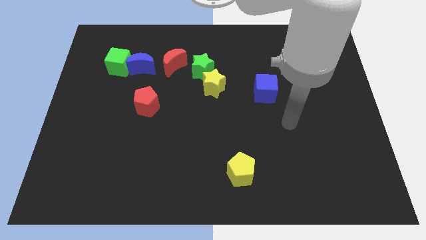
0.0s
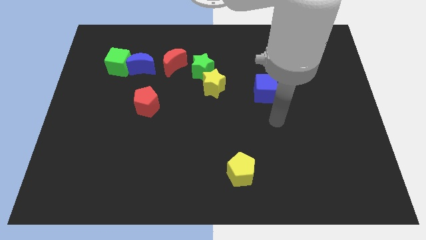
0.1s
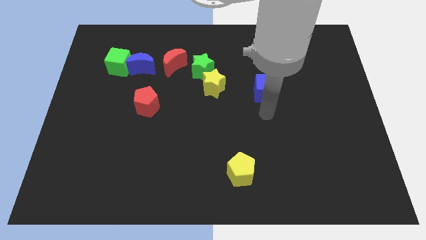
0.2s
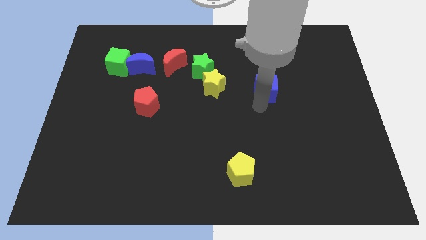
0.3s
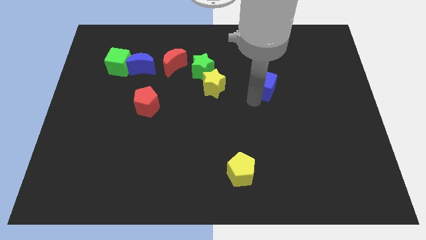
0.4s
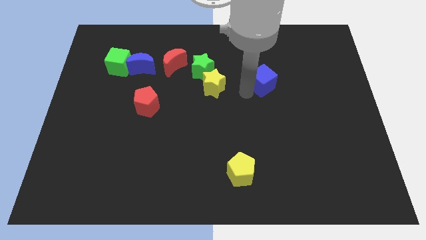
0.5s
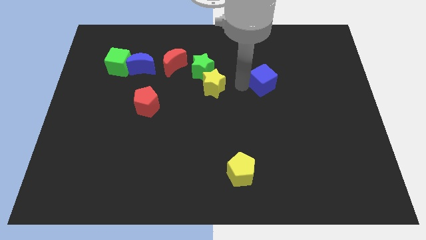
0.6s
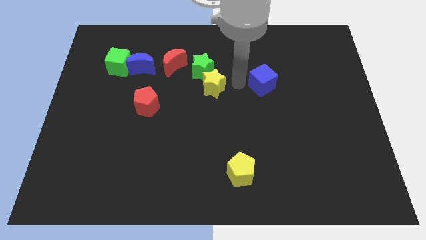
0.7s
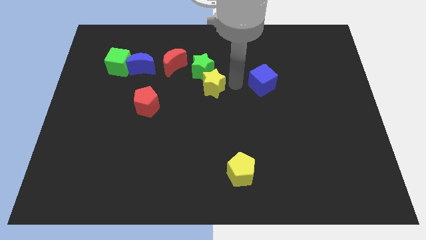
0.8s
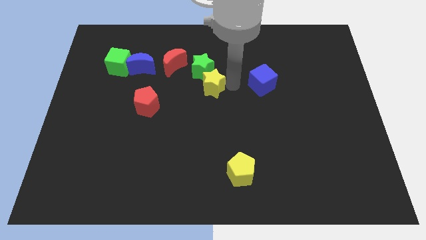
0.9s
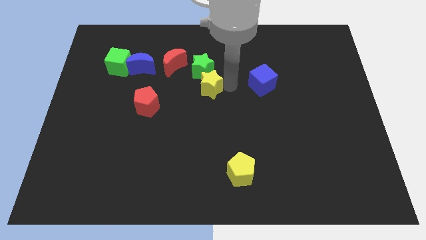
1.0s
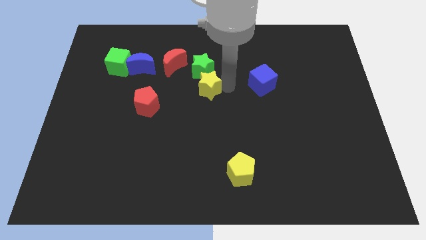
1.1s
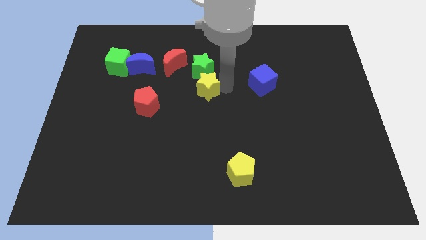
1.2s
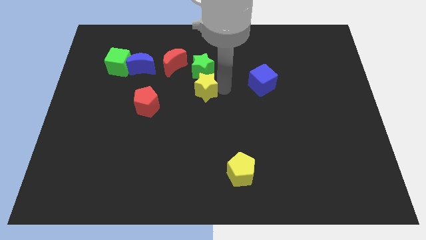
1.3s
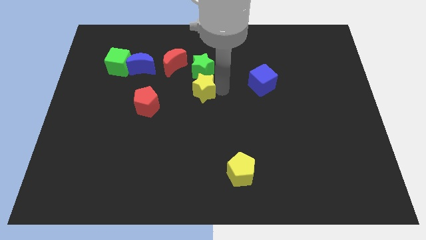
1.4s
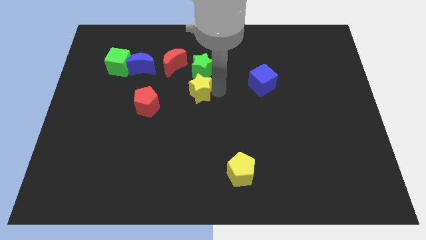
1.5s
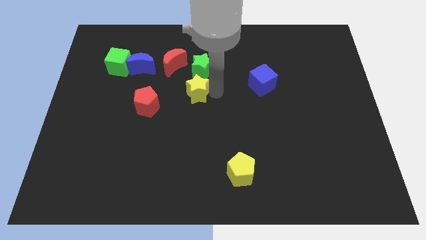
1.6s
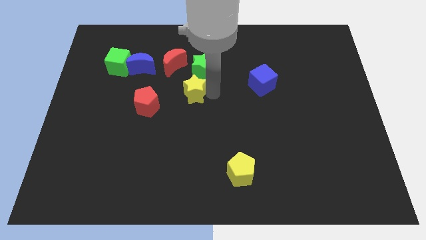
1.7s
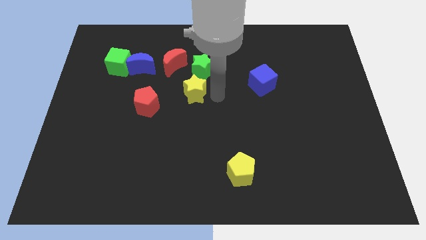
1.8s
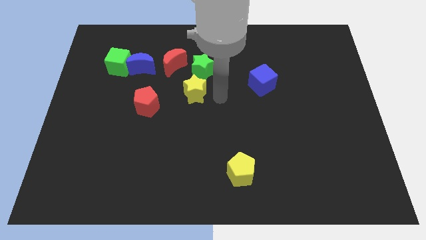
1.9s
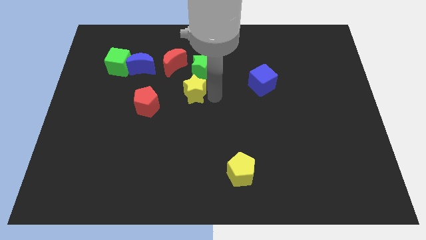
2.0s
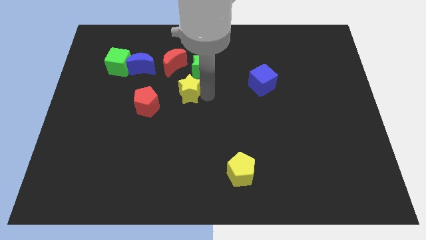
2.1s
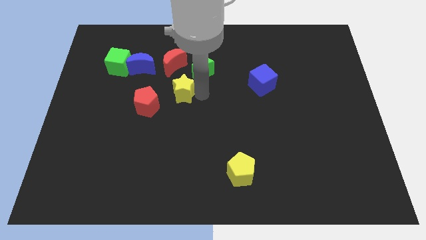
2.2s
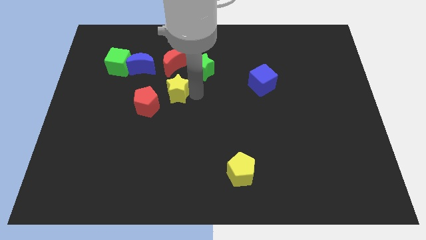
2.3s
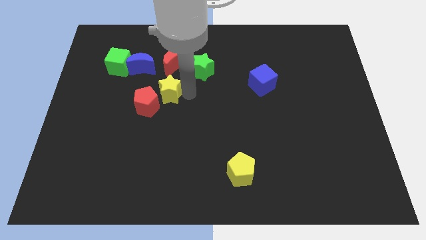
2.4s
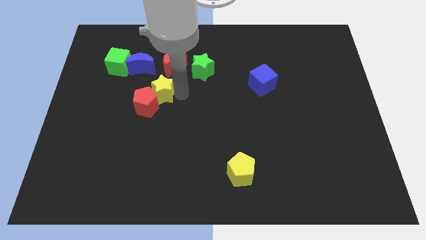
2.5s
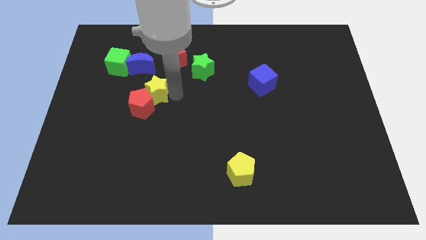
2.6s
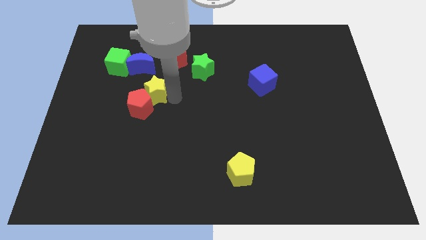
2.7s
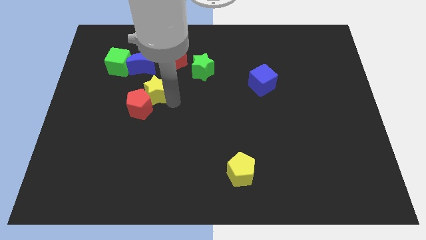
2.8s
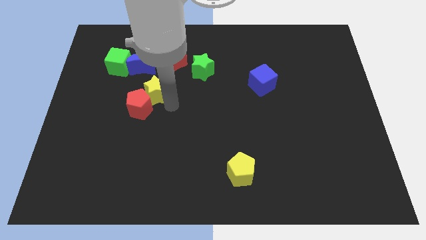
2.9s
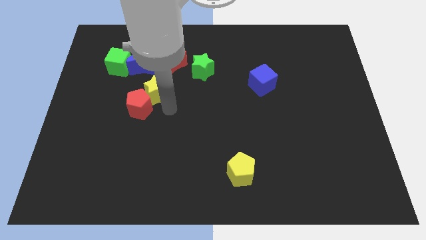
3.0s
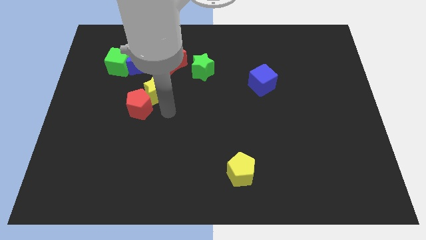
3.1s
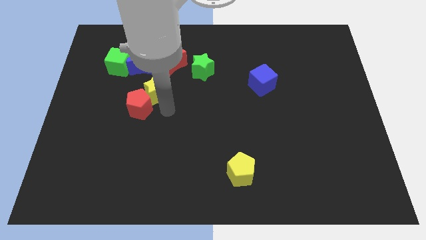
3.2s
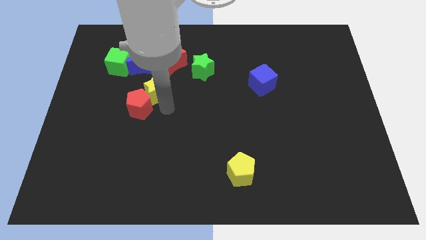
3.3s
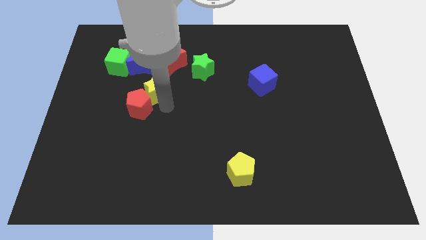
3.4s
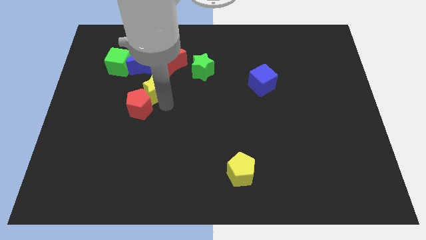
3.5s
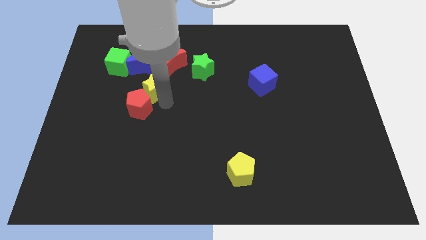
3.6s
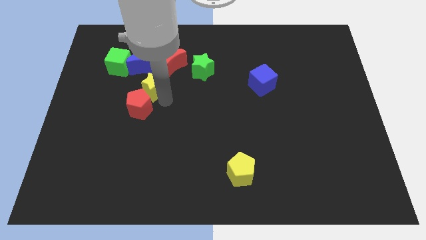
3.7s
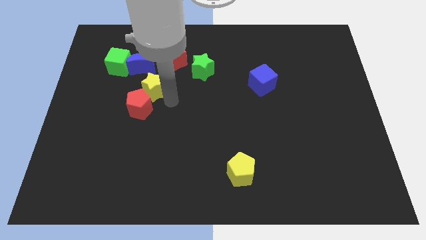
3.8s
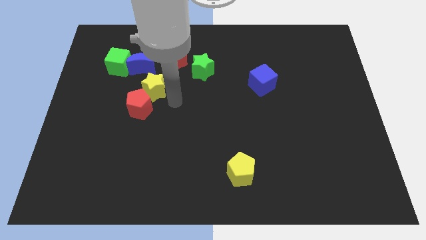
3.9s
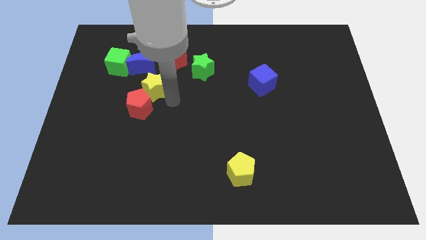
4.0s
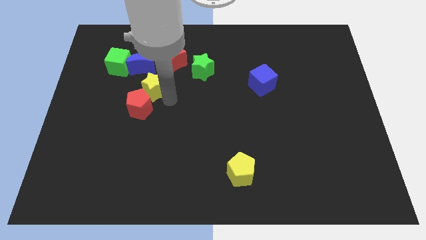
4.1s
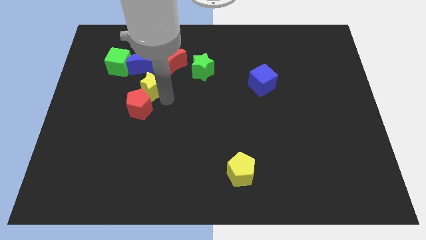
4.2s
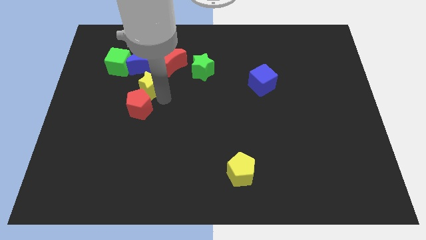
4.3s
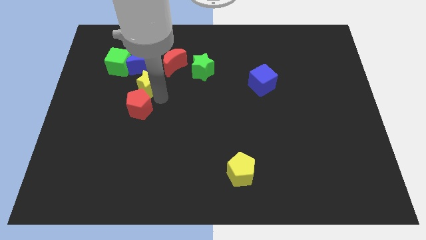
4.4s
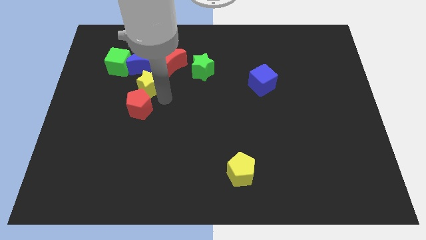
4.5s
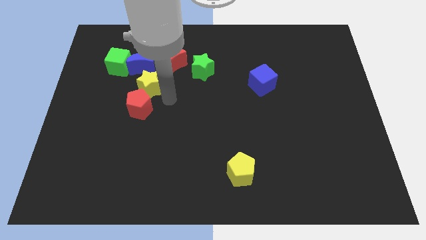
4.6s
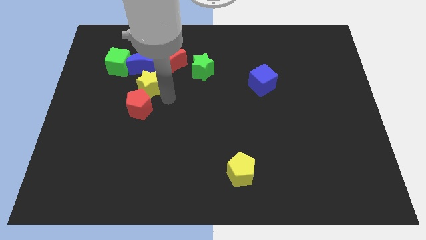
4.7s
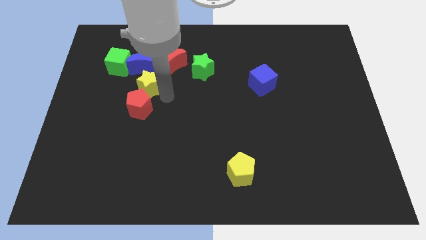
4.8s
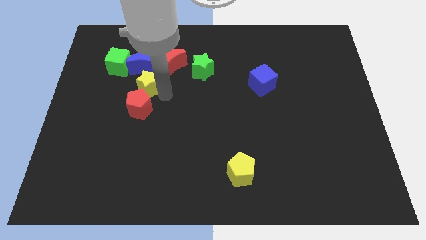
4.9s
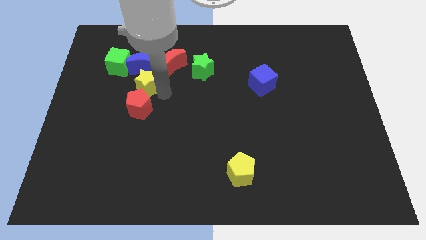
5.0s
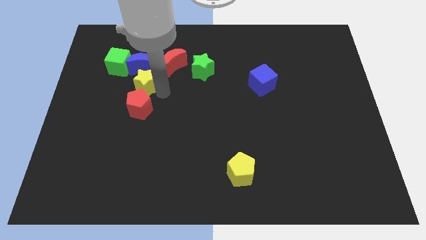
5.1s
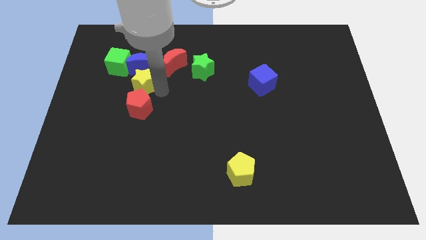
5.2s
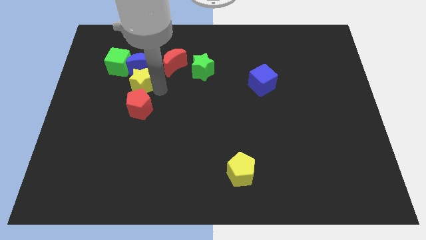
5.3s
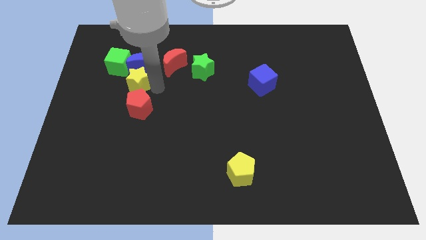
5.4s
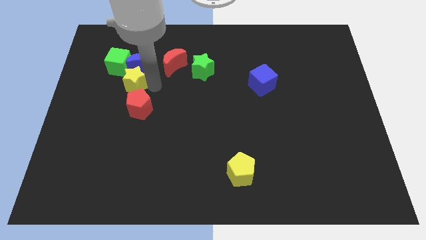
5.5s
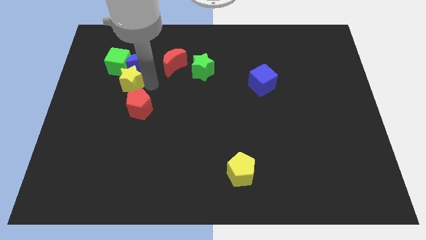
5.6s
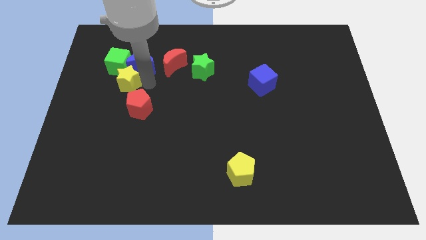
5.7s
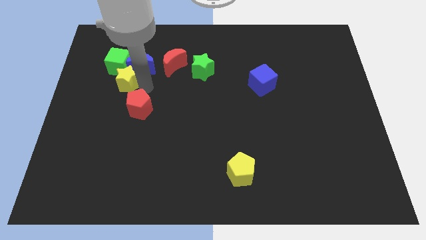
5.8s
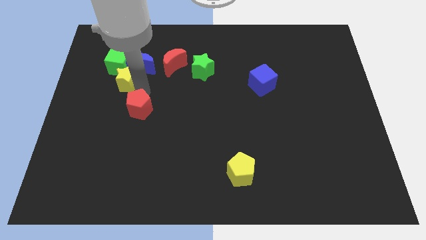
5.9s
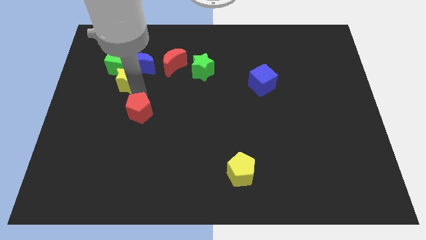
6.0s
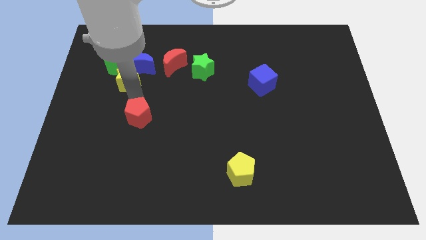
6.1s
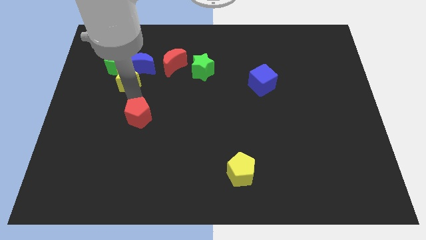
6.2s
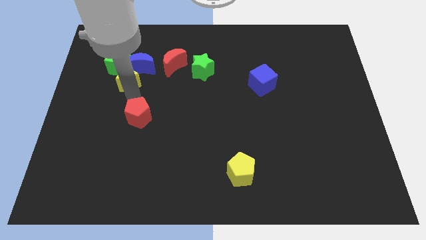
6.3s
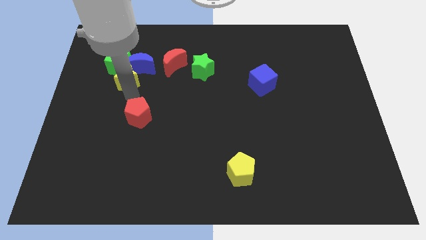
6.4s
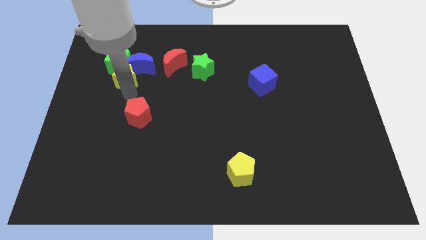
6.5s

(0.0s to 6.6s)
put the yellow star close to the green cube

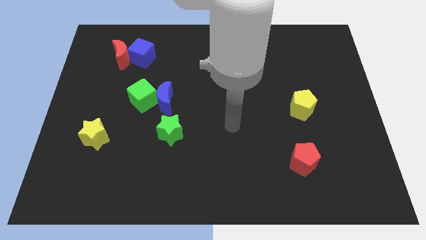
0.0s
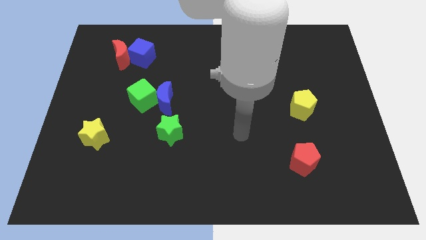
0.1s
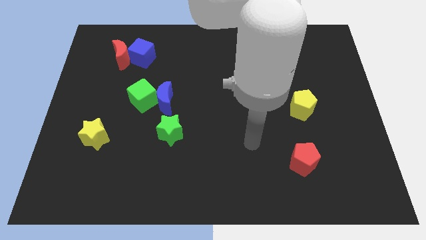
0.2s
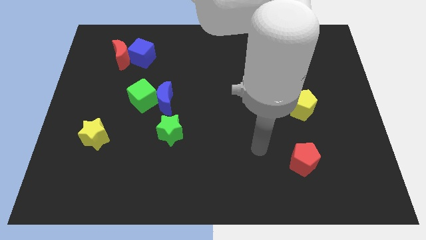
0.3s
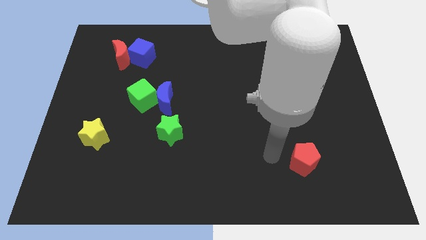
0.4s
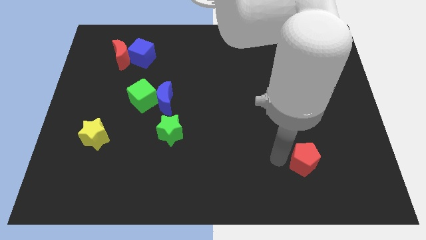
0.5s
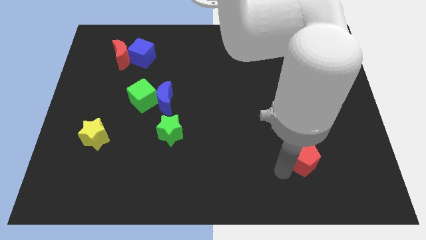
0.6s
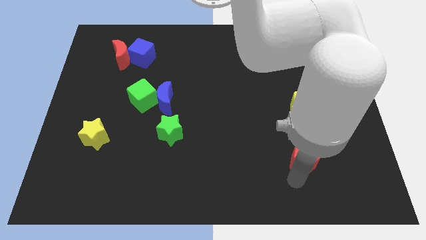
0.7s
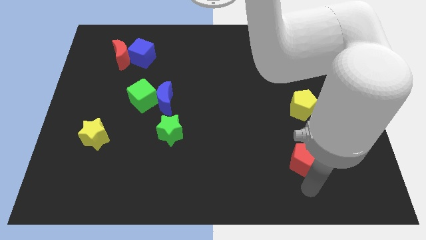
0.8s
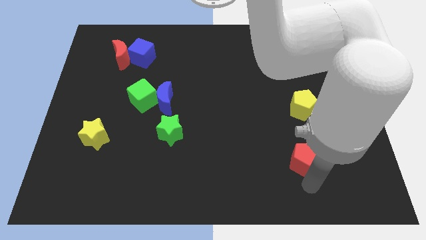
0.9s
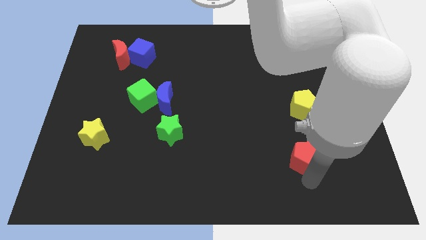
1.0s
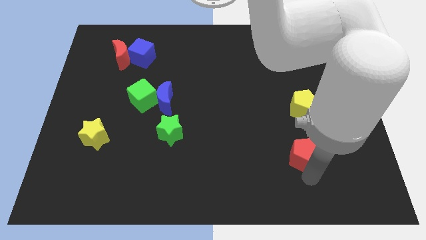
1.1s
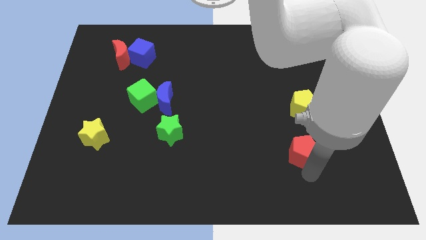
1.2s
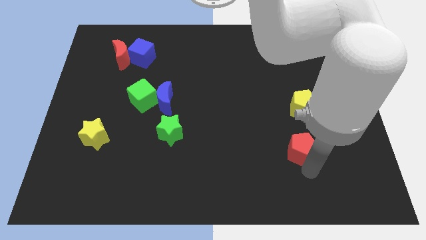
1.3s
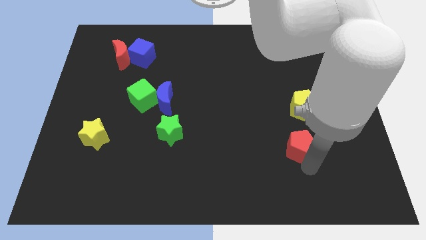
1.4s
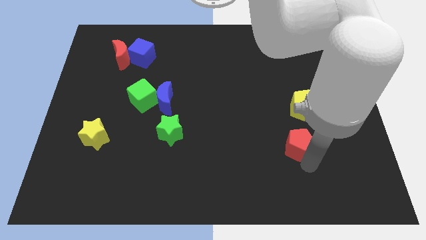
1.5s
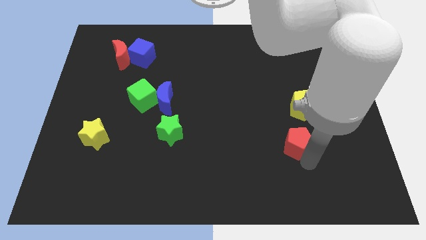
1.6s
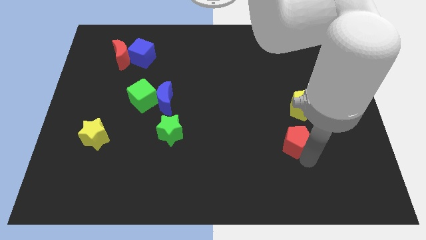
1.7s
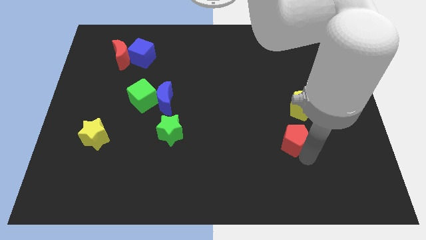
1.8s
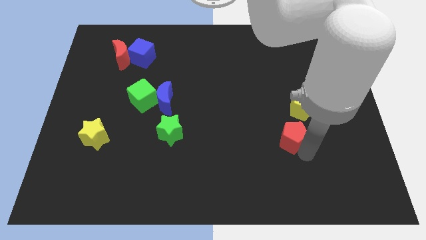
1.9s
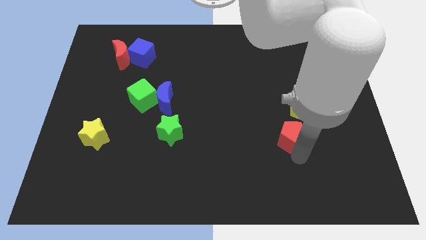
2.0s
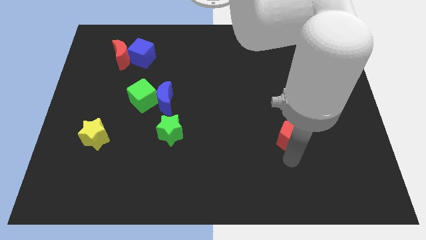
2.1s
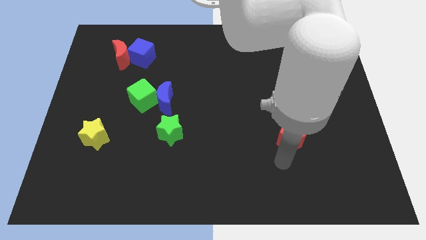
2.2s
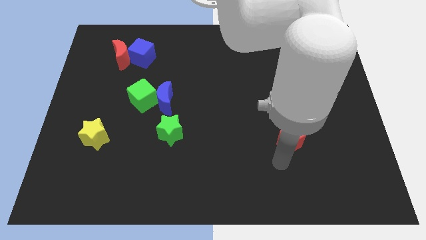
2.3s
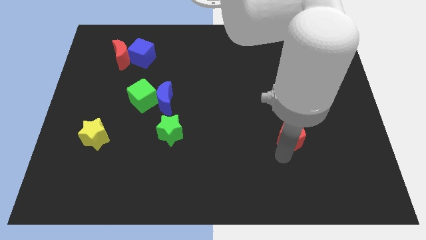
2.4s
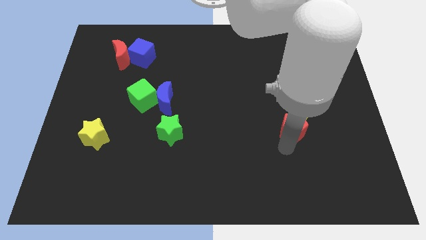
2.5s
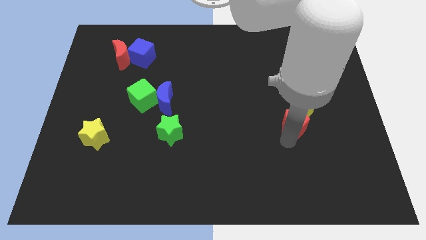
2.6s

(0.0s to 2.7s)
put the red pentagon next to the yellow pentagon
